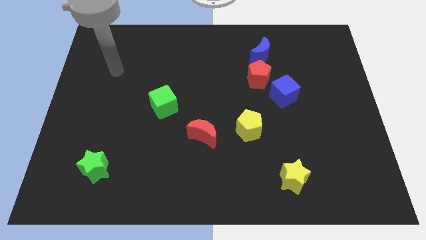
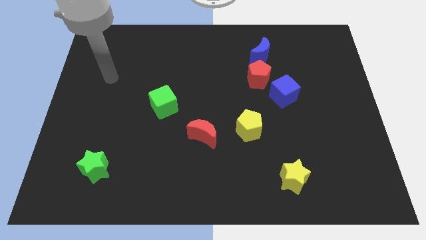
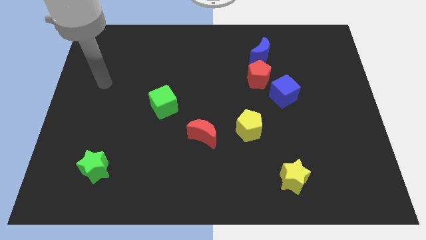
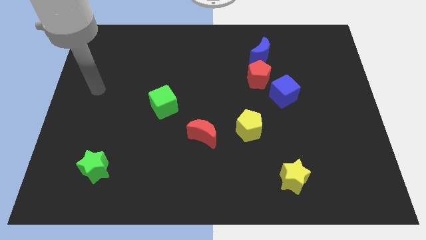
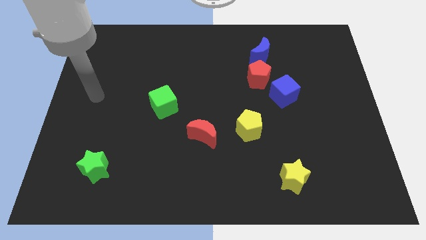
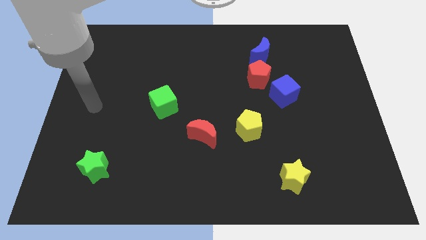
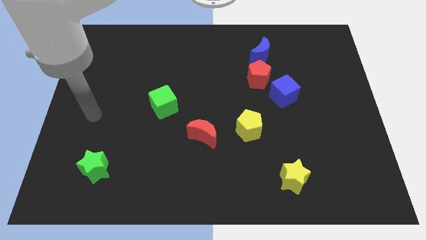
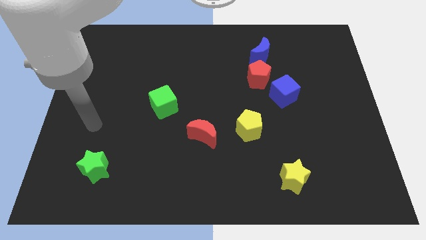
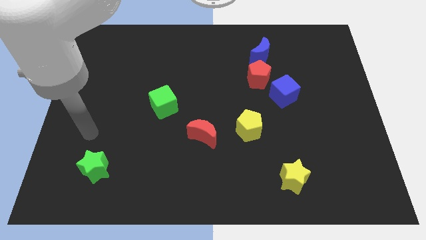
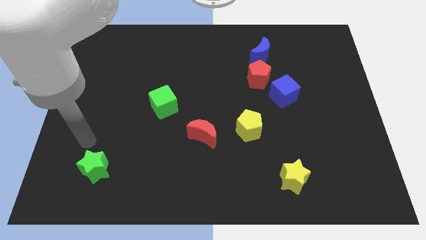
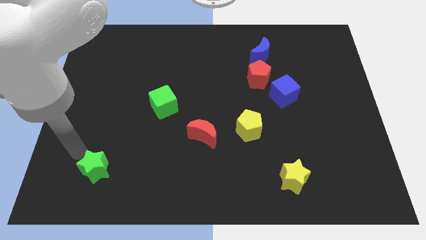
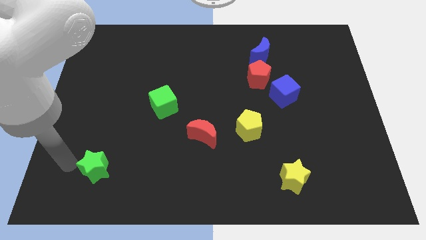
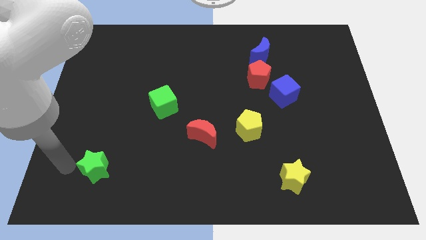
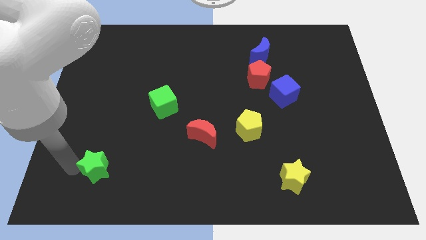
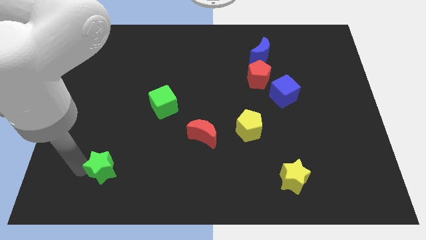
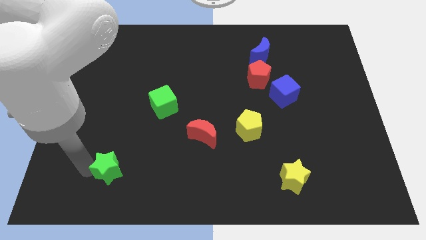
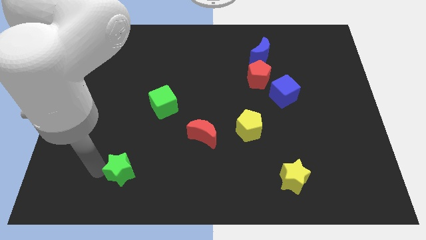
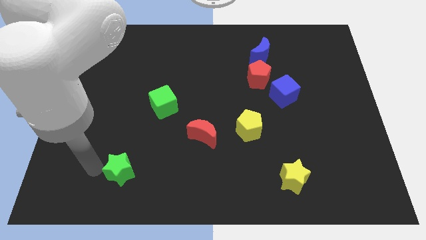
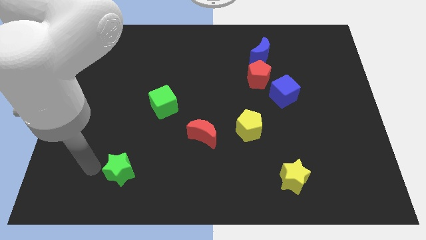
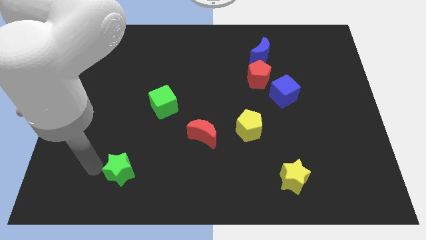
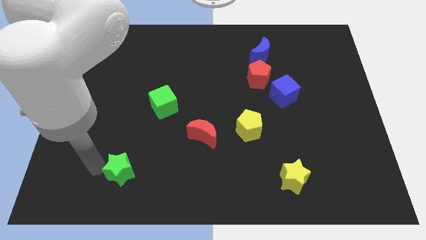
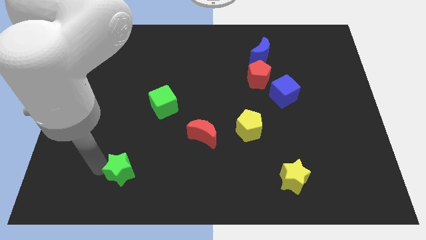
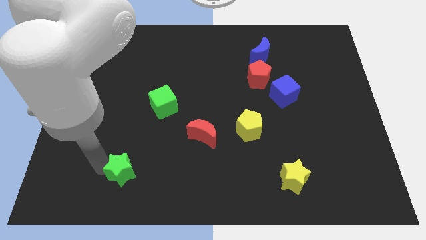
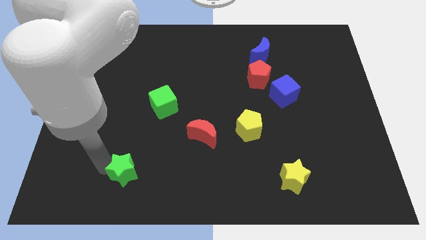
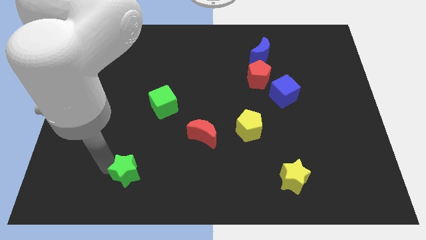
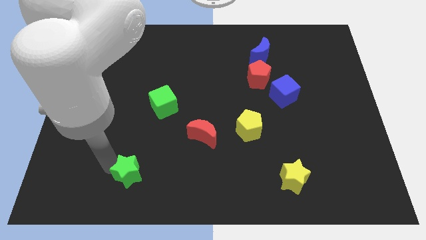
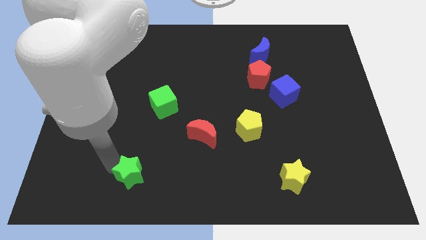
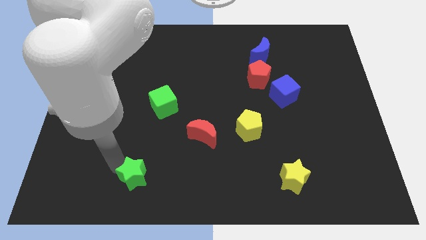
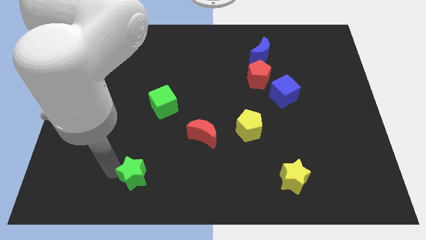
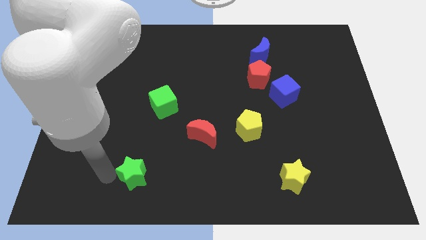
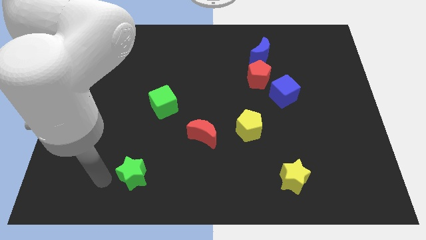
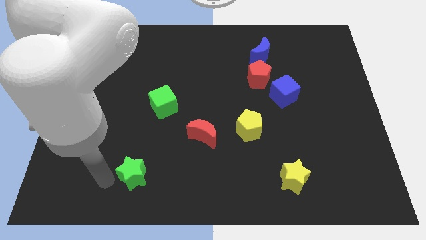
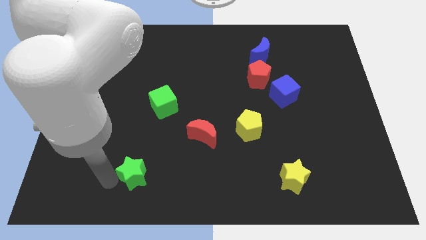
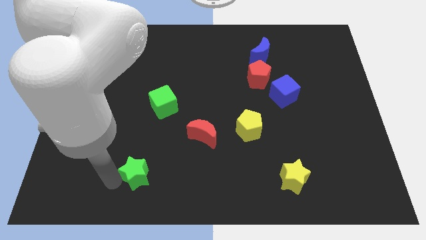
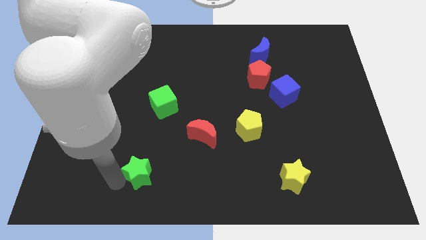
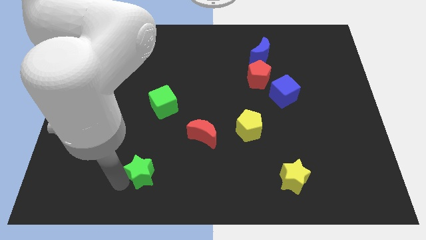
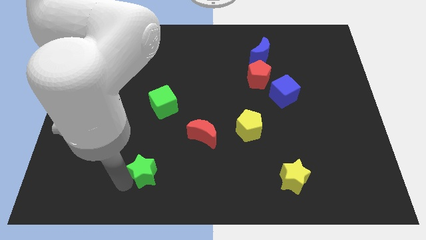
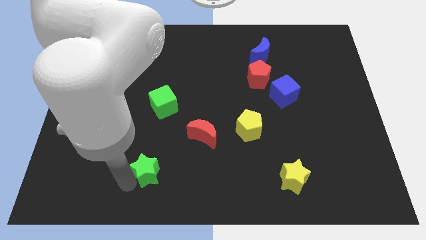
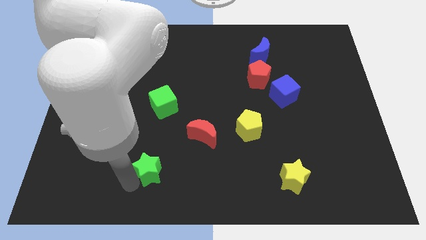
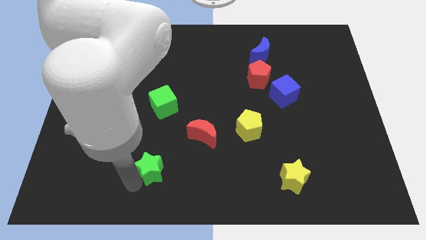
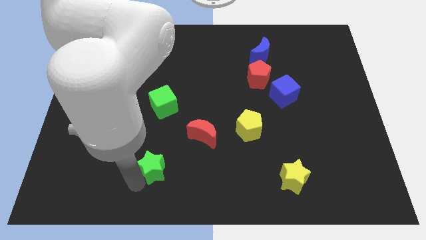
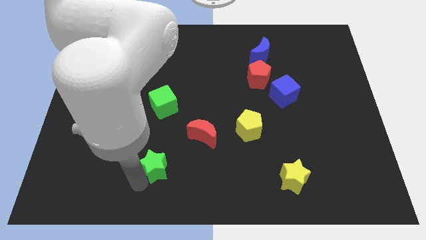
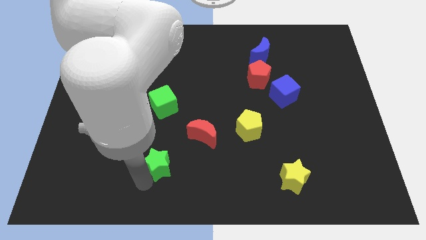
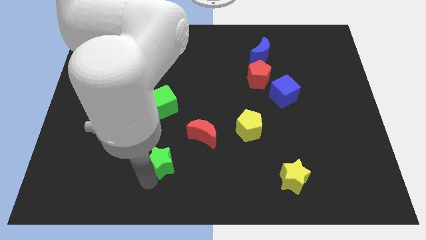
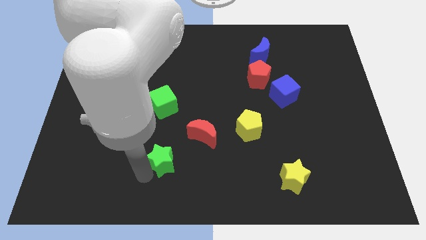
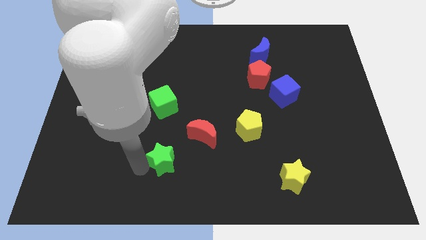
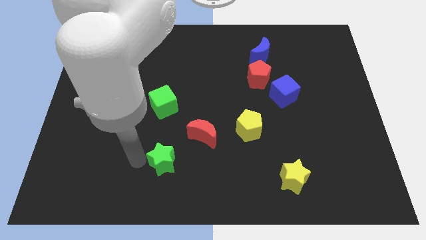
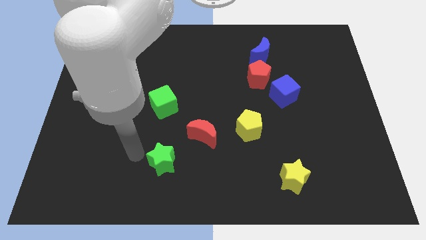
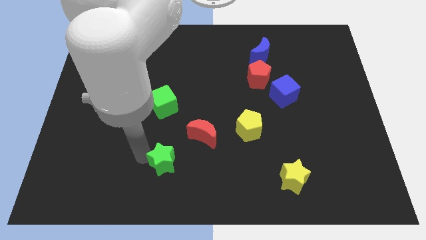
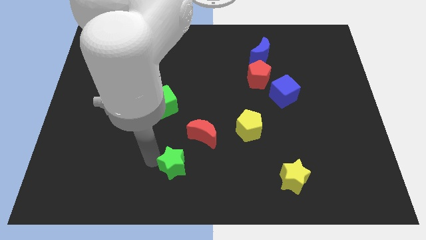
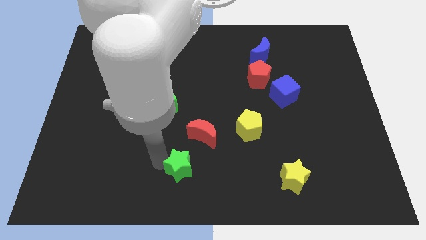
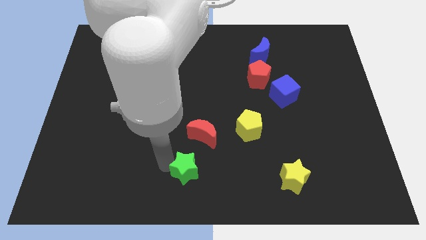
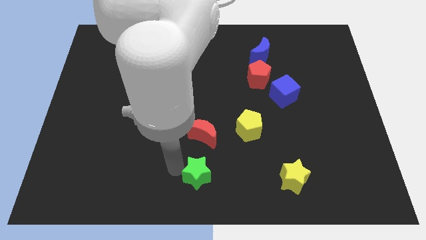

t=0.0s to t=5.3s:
push the green star right

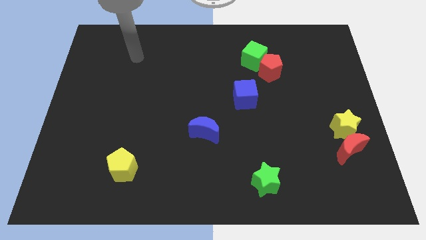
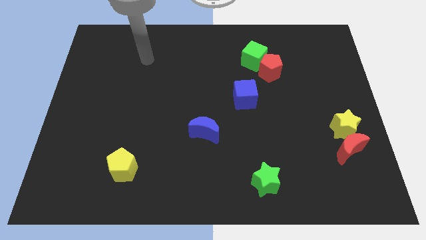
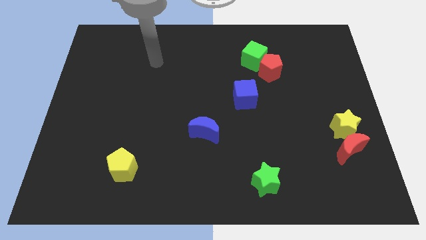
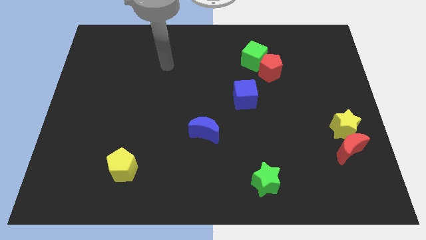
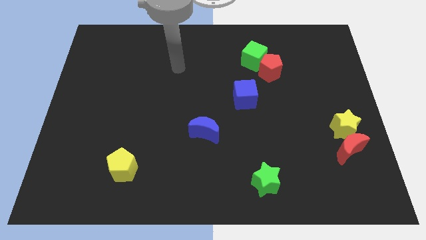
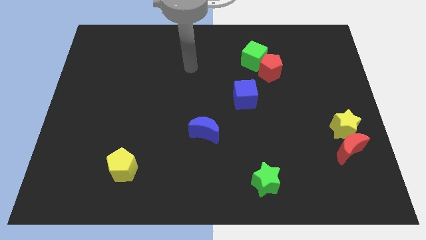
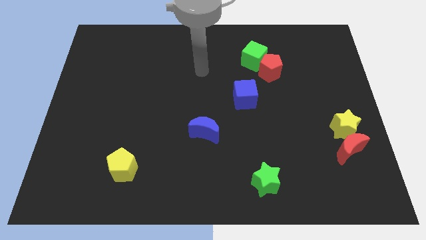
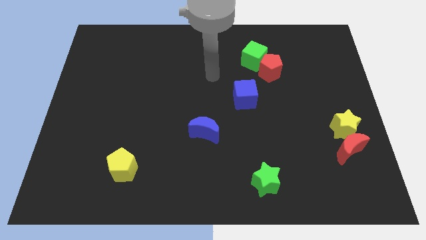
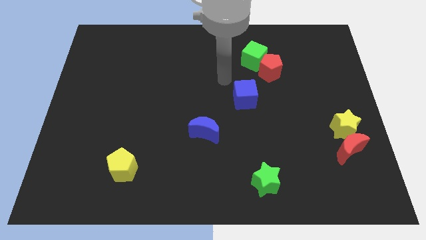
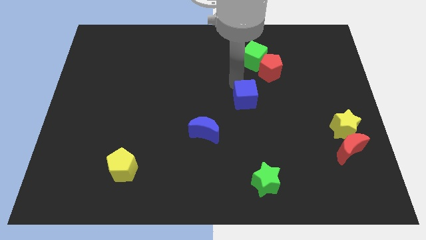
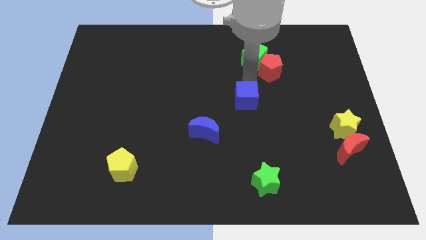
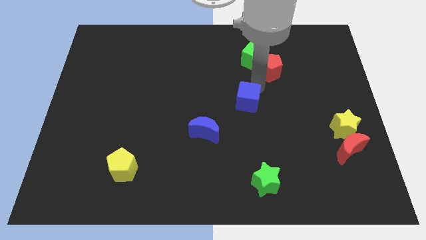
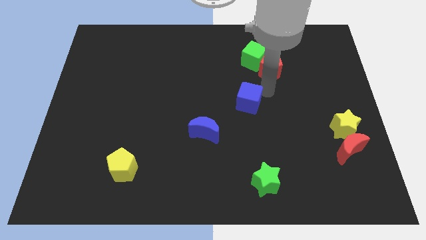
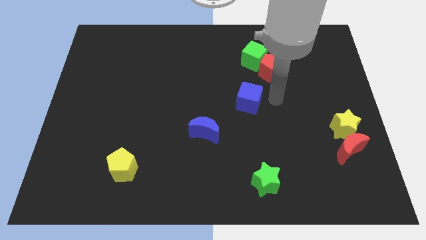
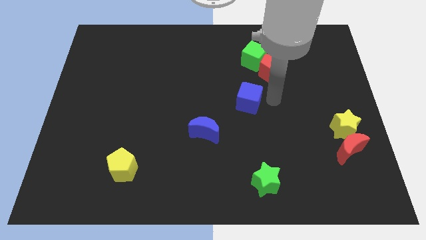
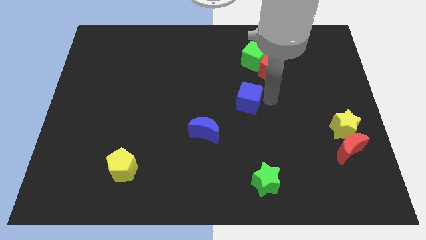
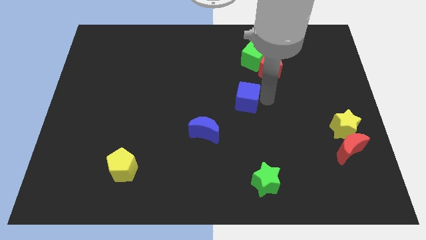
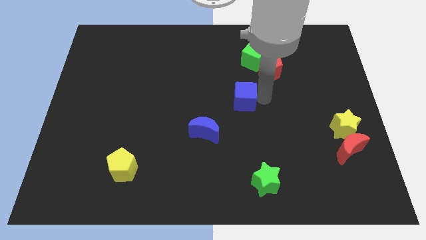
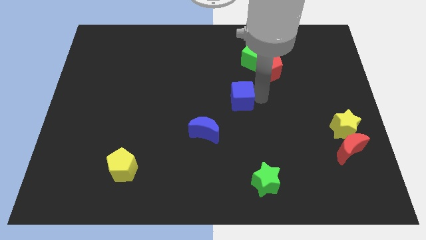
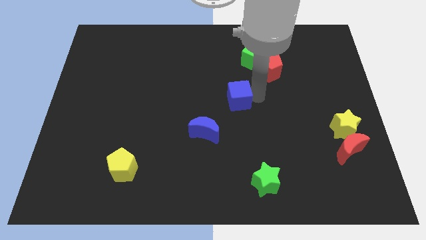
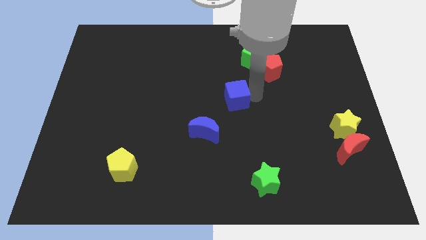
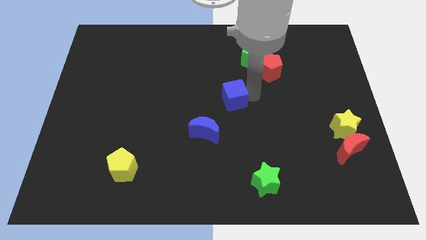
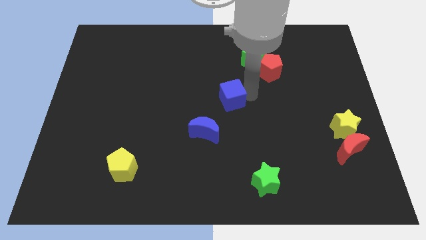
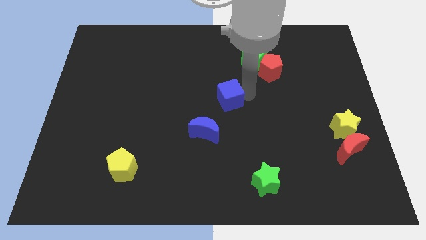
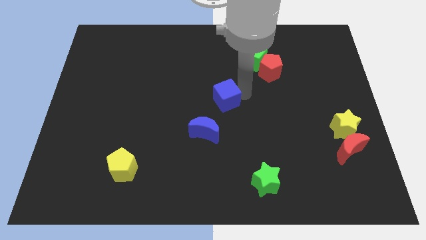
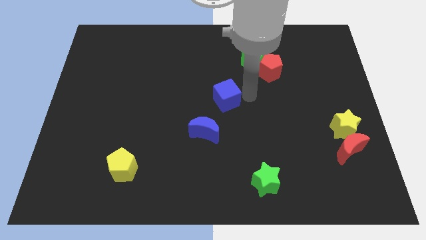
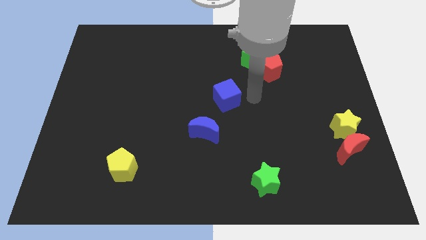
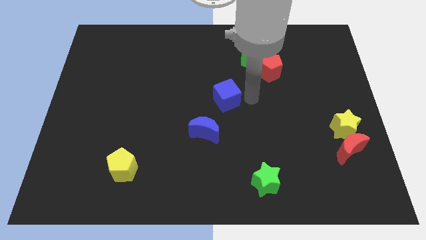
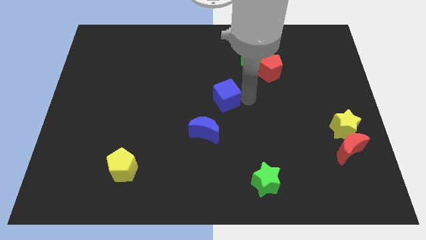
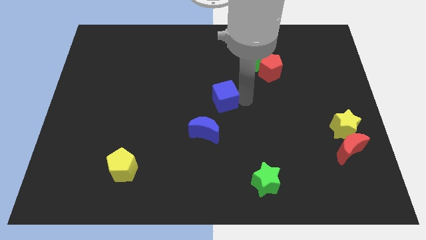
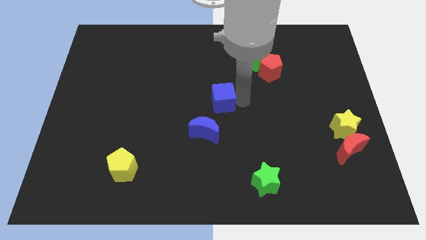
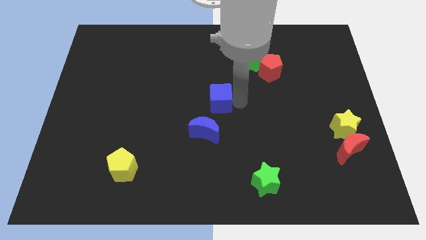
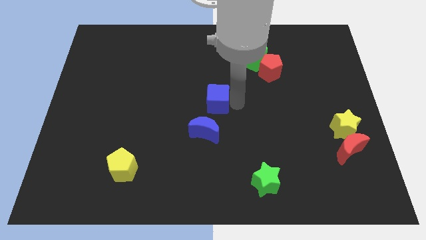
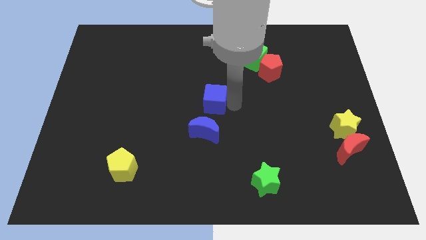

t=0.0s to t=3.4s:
move the blue cube somewhat to the left
